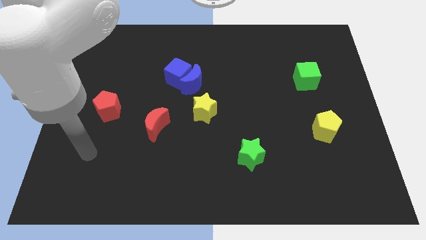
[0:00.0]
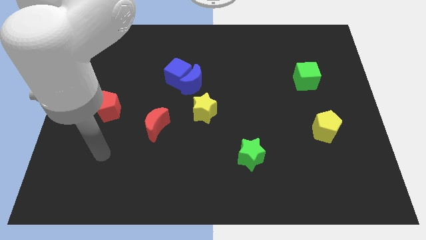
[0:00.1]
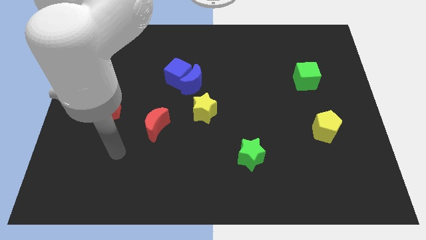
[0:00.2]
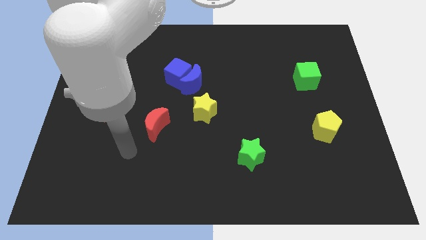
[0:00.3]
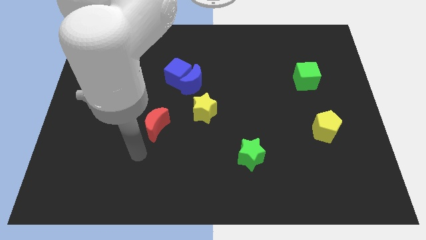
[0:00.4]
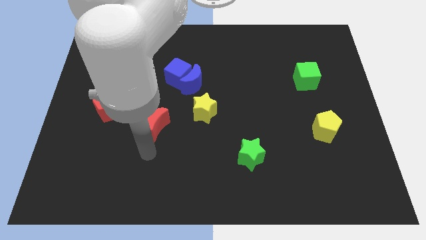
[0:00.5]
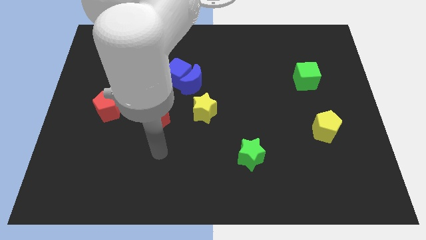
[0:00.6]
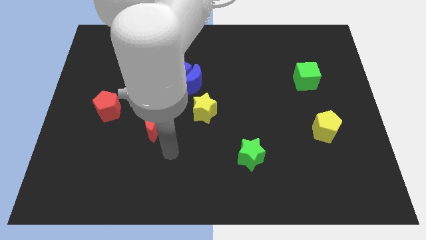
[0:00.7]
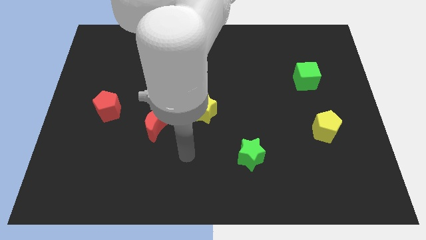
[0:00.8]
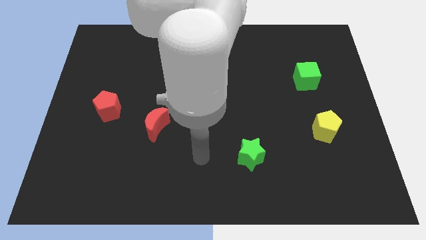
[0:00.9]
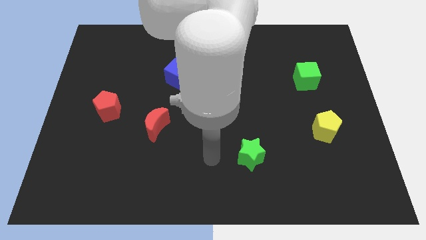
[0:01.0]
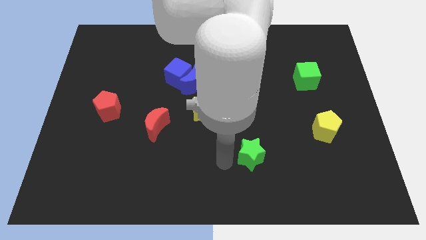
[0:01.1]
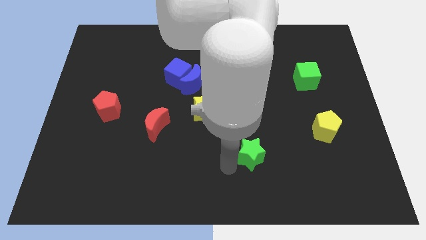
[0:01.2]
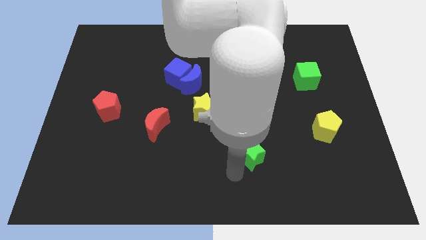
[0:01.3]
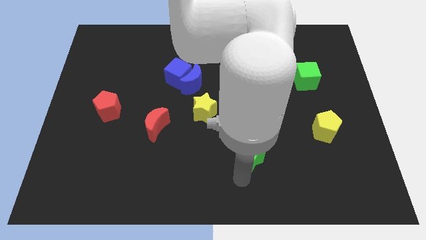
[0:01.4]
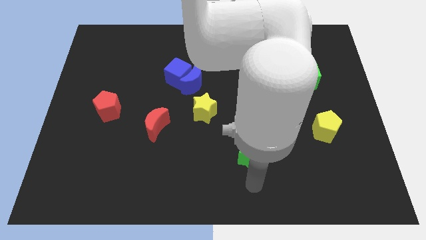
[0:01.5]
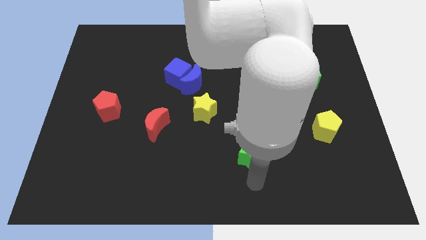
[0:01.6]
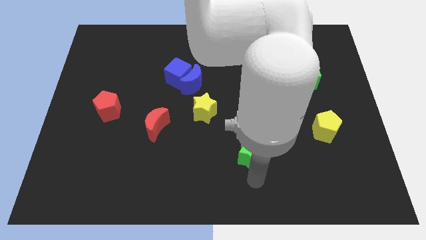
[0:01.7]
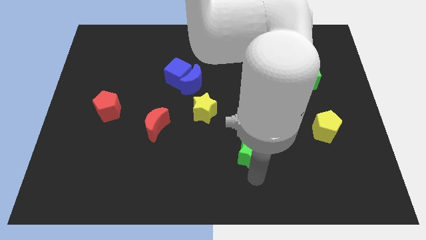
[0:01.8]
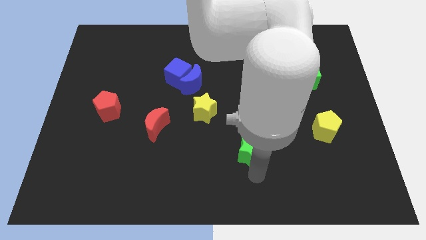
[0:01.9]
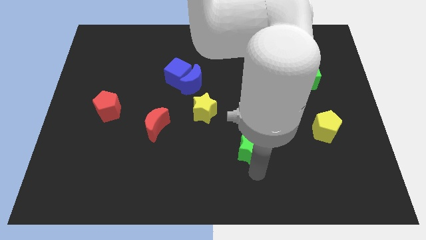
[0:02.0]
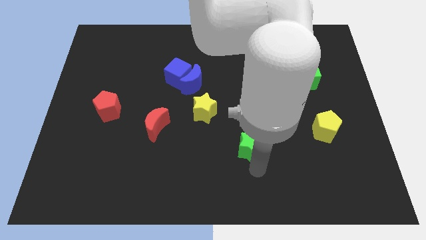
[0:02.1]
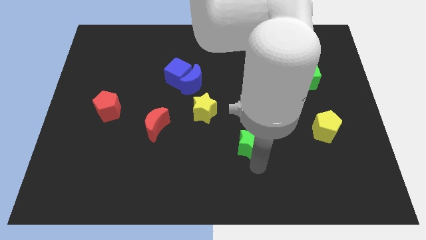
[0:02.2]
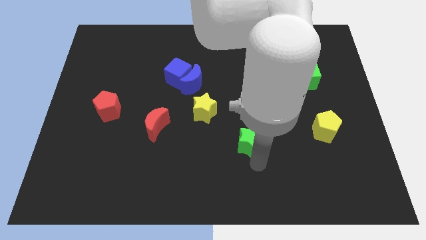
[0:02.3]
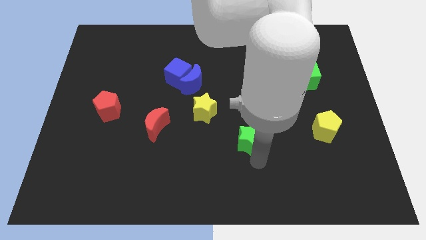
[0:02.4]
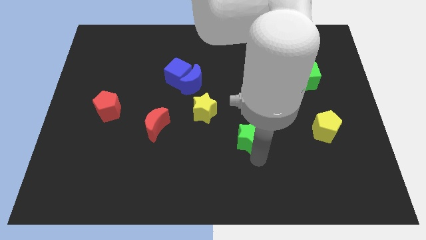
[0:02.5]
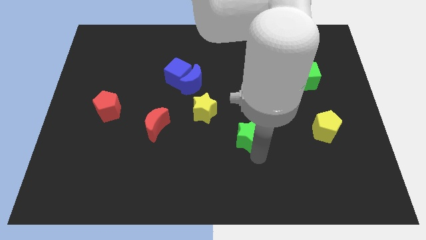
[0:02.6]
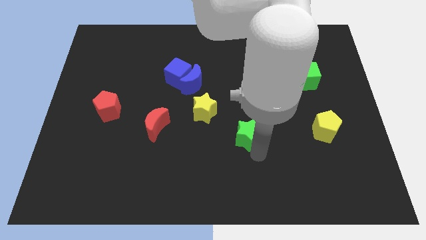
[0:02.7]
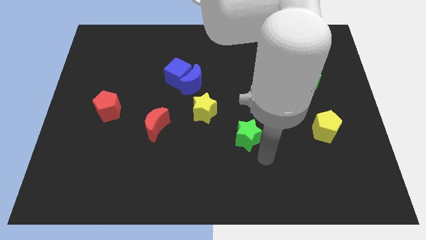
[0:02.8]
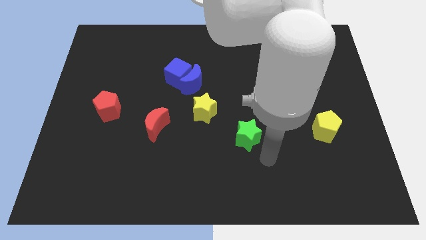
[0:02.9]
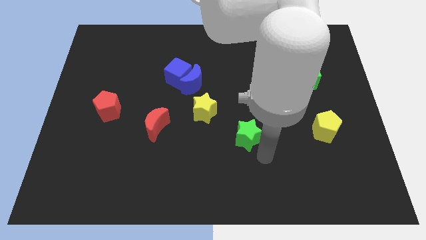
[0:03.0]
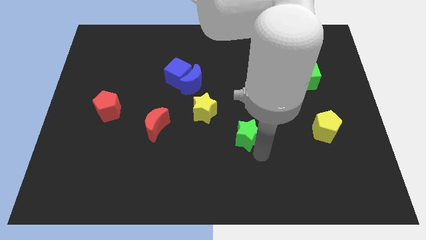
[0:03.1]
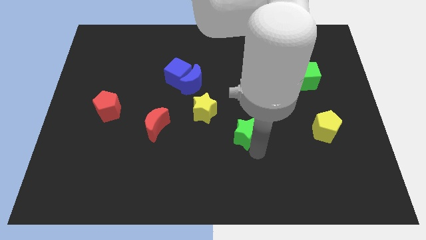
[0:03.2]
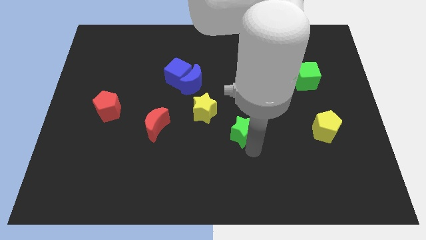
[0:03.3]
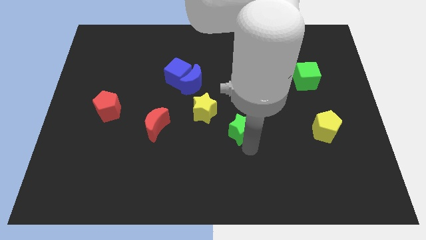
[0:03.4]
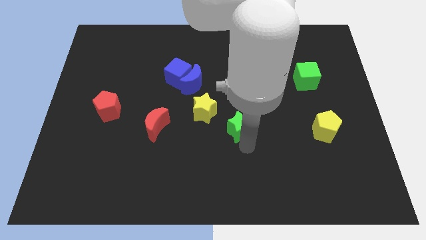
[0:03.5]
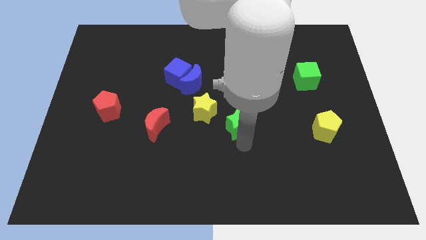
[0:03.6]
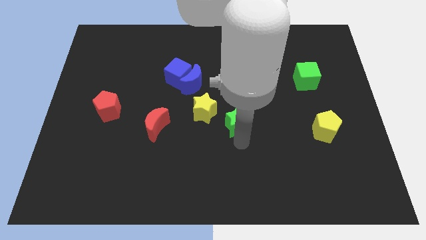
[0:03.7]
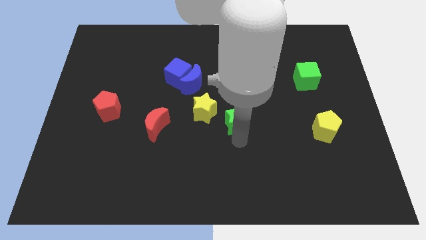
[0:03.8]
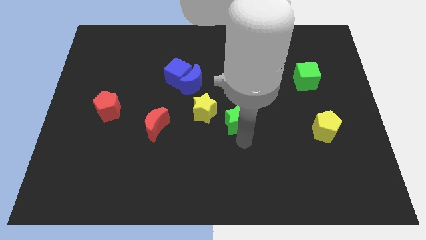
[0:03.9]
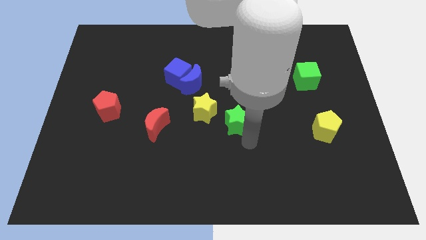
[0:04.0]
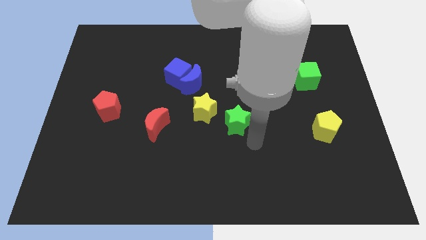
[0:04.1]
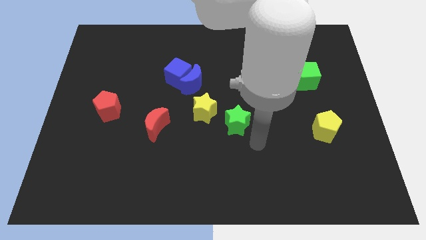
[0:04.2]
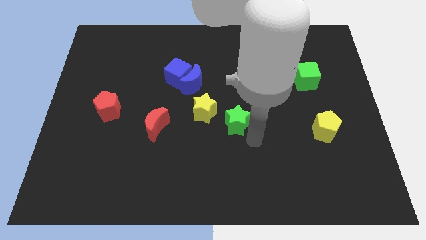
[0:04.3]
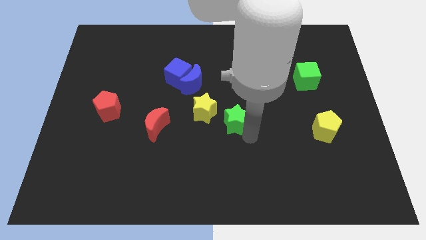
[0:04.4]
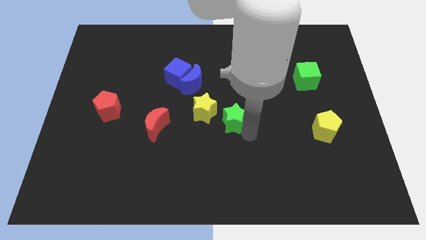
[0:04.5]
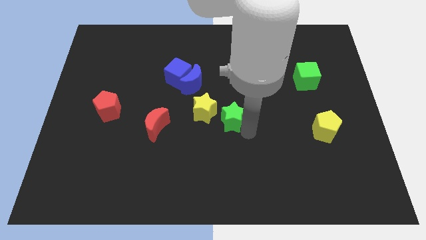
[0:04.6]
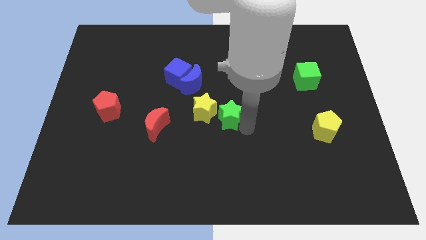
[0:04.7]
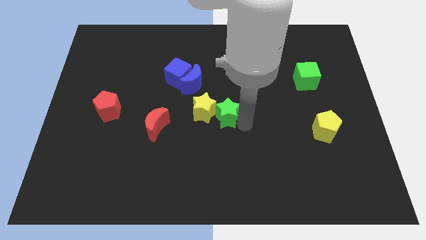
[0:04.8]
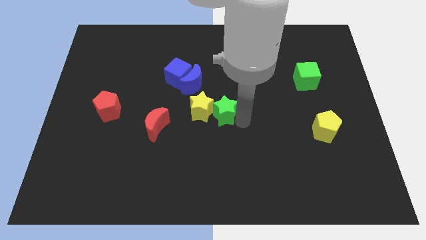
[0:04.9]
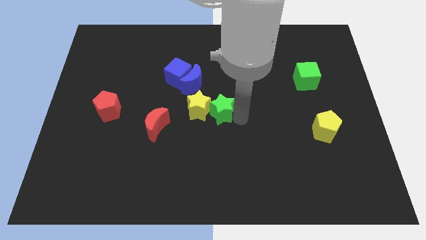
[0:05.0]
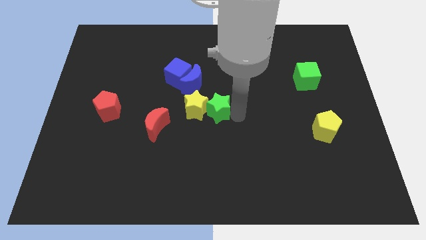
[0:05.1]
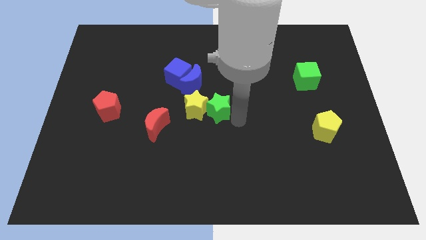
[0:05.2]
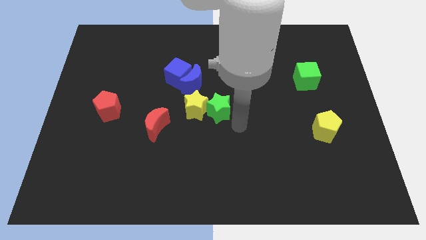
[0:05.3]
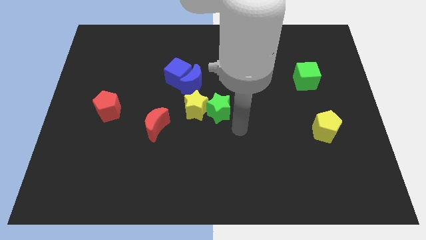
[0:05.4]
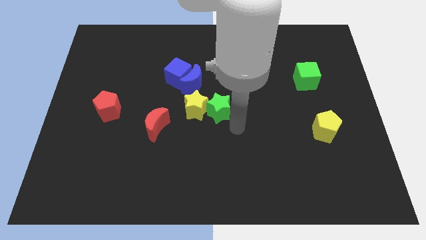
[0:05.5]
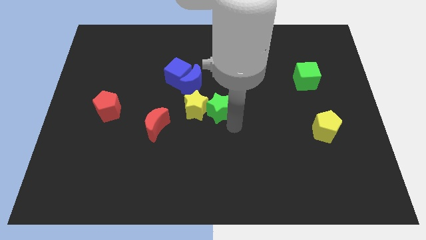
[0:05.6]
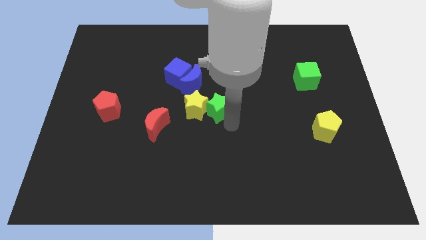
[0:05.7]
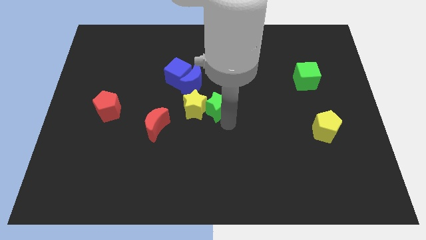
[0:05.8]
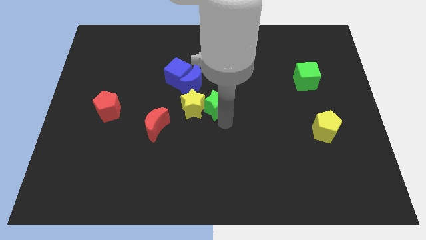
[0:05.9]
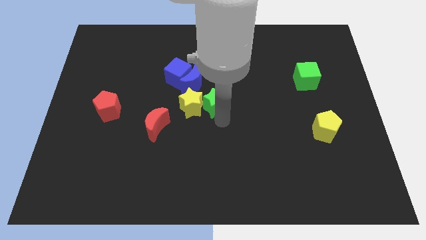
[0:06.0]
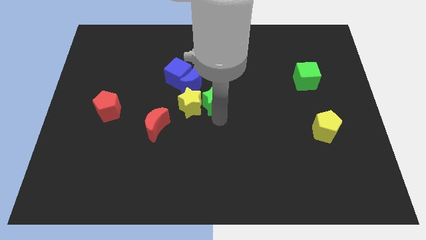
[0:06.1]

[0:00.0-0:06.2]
push the green star to the bottom right side of the blue cube

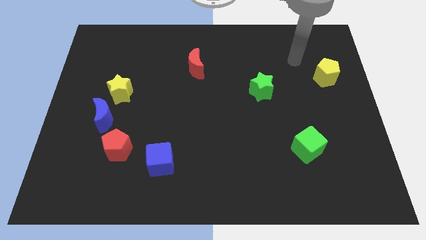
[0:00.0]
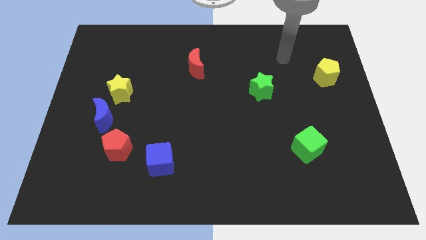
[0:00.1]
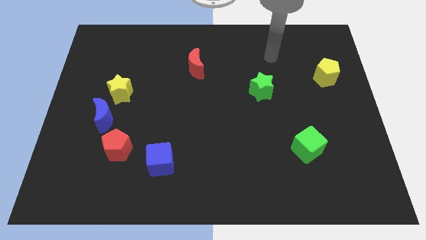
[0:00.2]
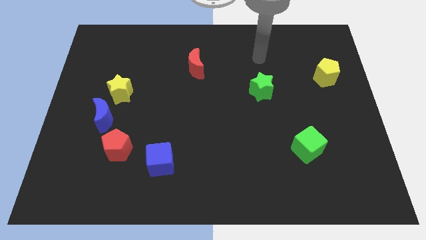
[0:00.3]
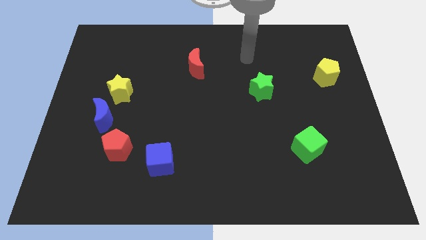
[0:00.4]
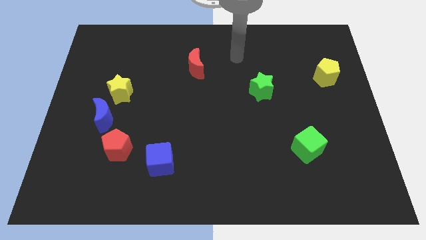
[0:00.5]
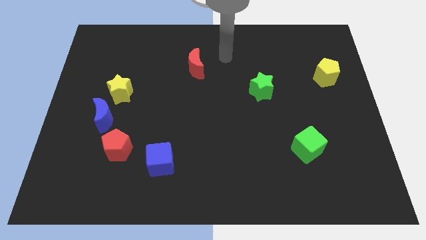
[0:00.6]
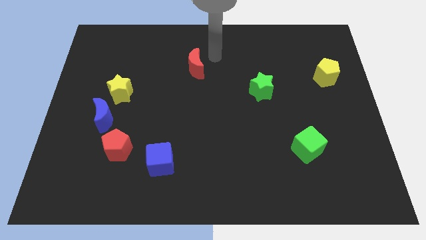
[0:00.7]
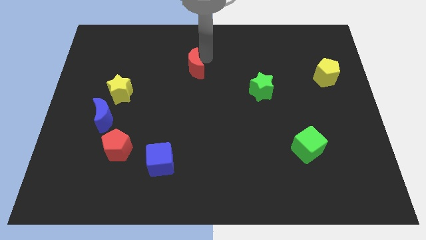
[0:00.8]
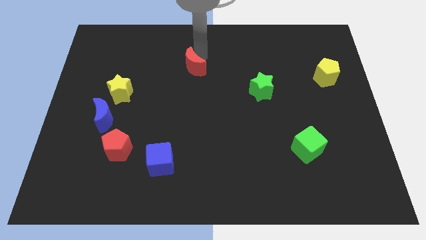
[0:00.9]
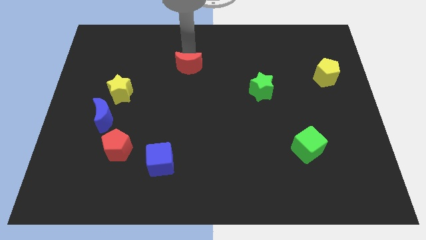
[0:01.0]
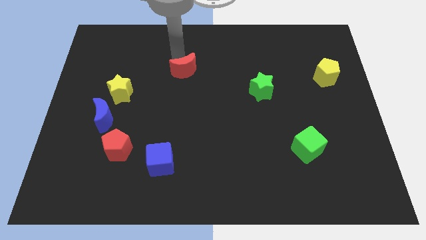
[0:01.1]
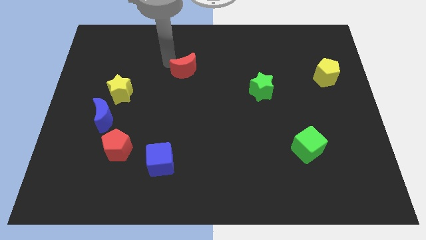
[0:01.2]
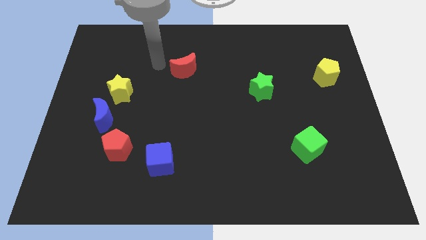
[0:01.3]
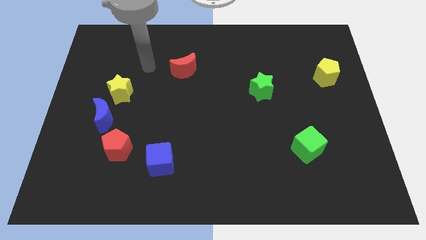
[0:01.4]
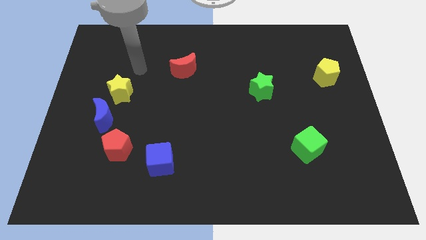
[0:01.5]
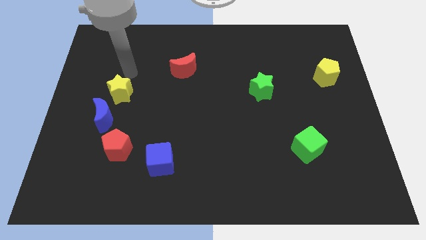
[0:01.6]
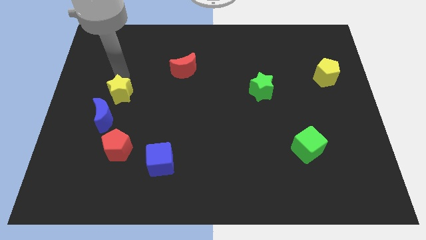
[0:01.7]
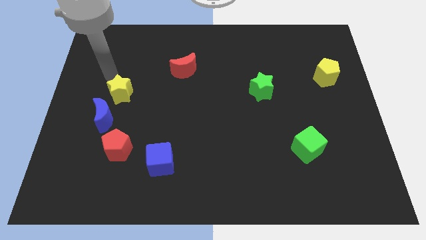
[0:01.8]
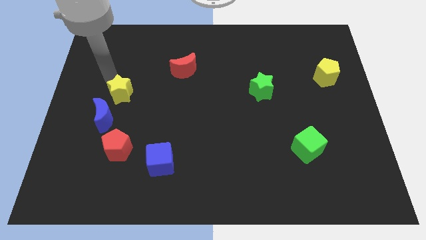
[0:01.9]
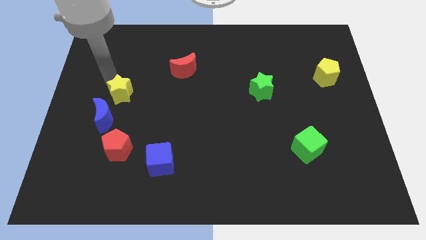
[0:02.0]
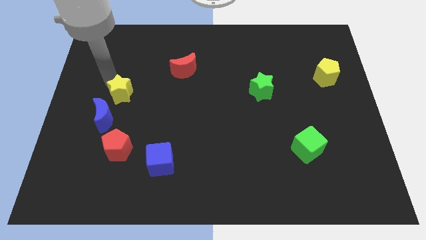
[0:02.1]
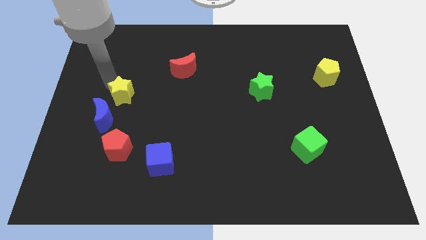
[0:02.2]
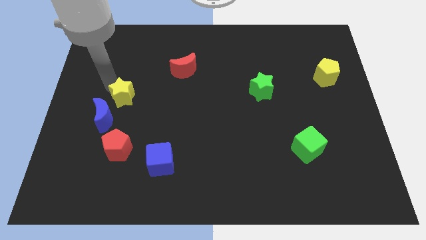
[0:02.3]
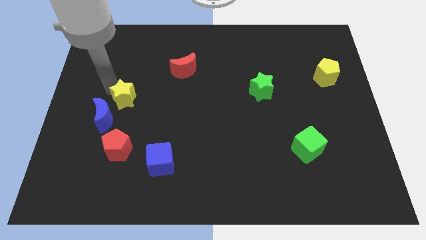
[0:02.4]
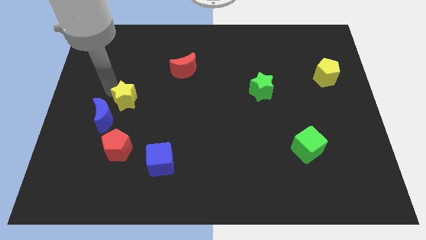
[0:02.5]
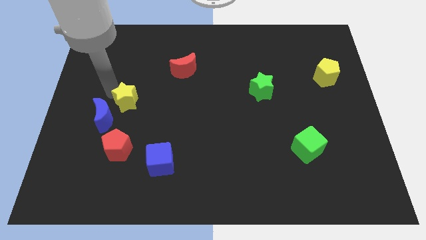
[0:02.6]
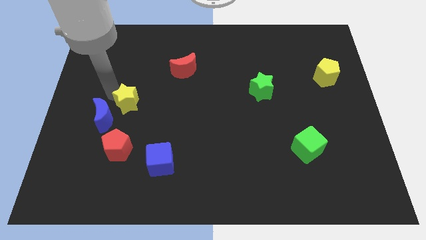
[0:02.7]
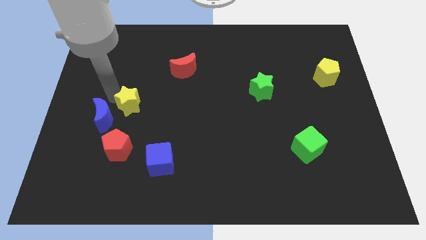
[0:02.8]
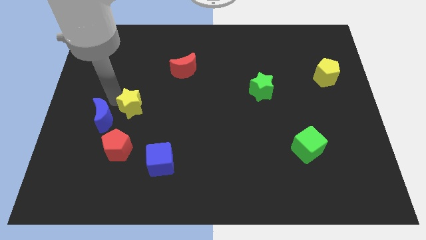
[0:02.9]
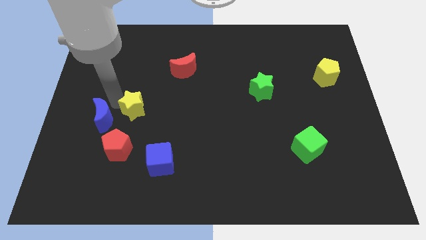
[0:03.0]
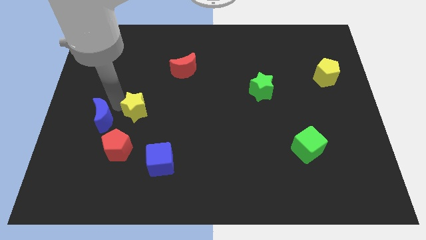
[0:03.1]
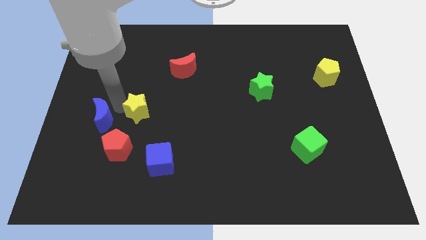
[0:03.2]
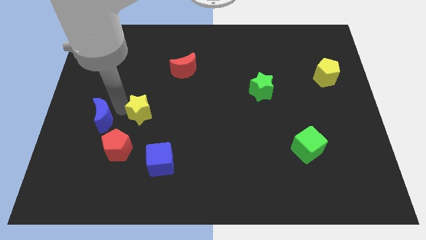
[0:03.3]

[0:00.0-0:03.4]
push the yellow star to the top right of the red pentagon
